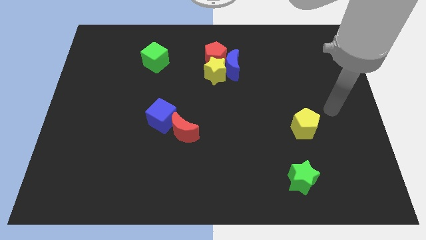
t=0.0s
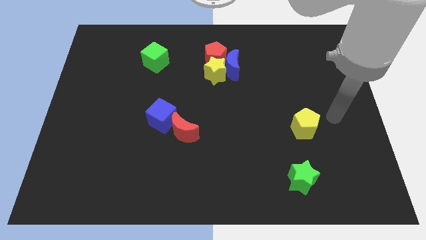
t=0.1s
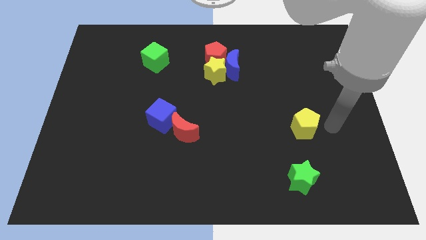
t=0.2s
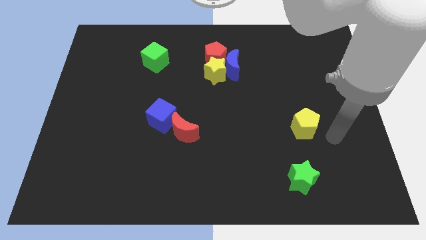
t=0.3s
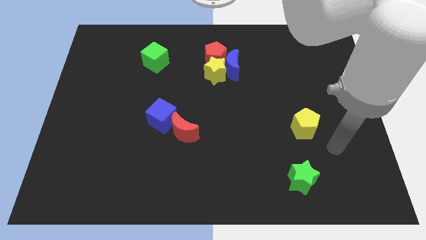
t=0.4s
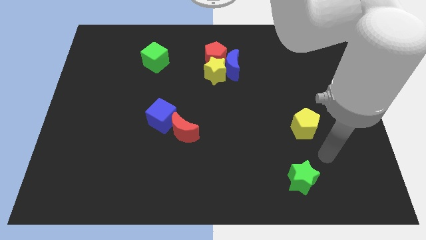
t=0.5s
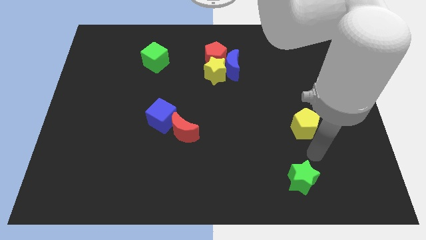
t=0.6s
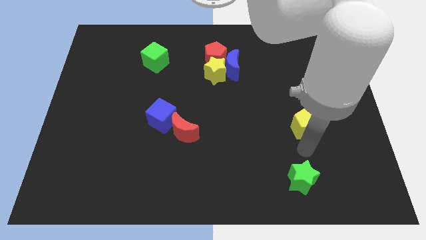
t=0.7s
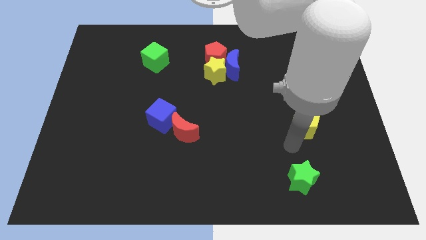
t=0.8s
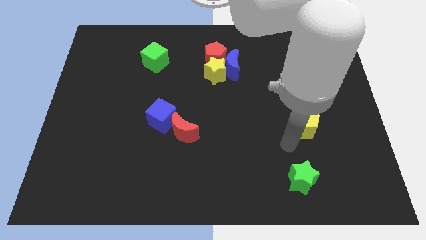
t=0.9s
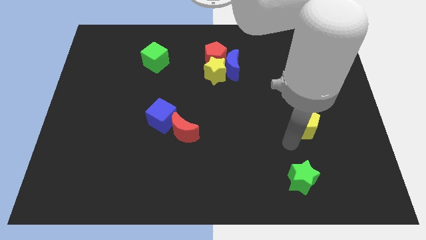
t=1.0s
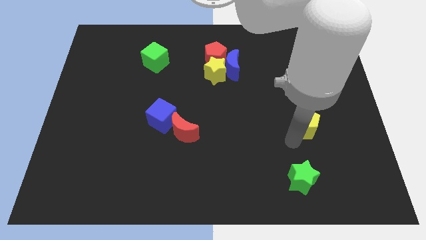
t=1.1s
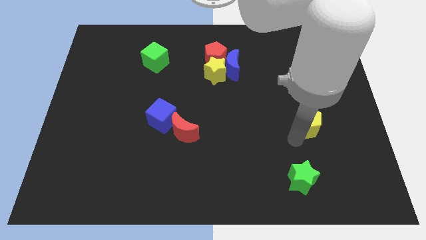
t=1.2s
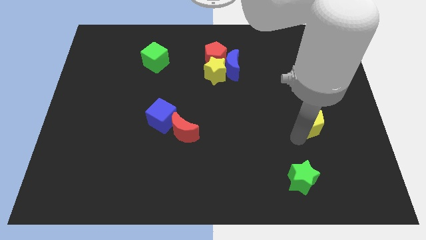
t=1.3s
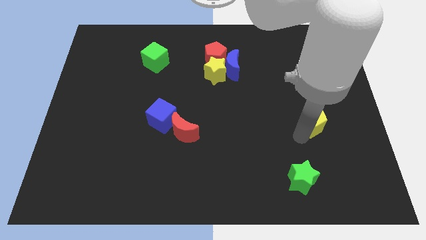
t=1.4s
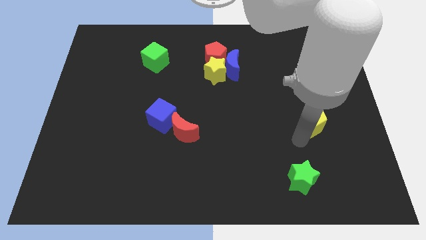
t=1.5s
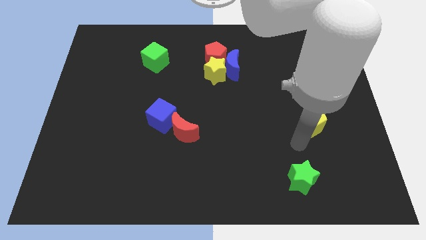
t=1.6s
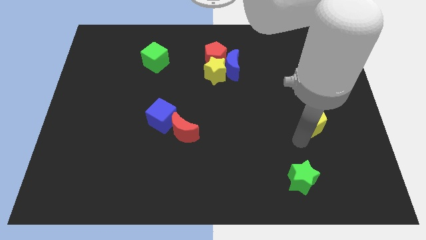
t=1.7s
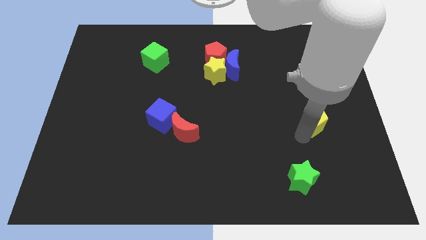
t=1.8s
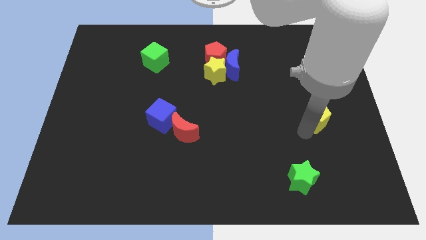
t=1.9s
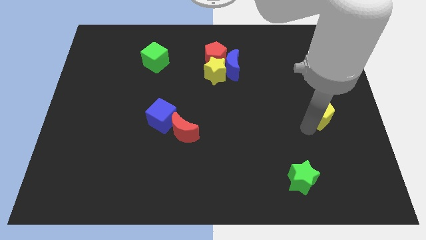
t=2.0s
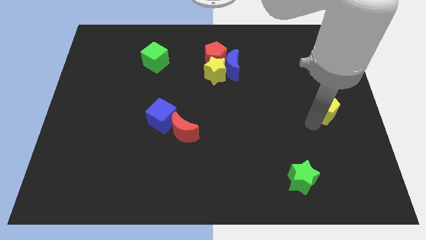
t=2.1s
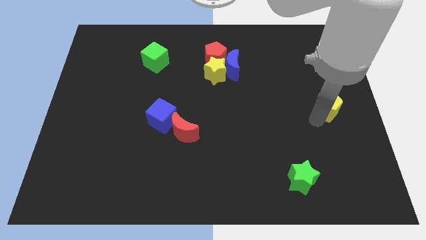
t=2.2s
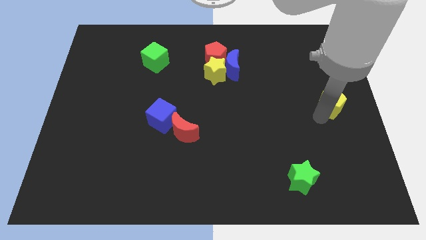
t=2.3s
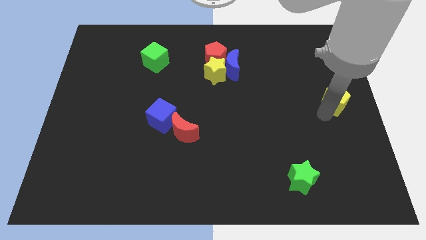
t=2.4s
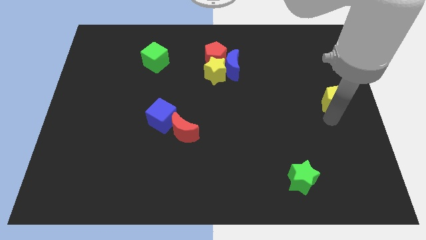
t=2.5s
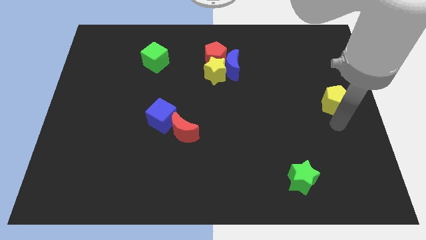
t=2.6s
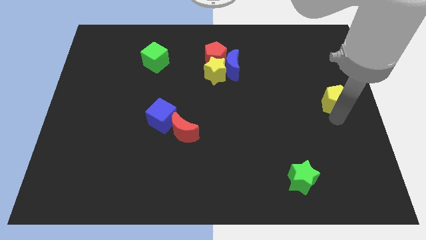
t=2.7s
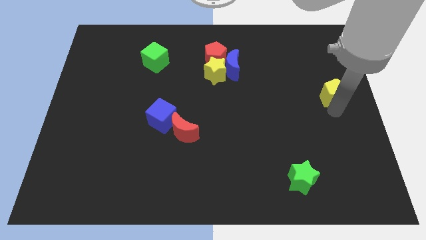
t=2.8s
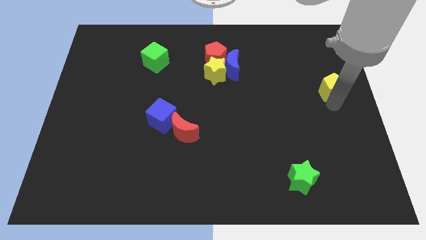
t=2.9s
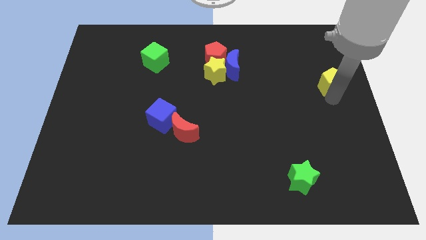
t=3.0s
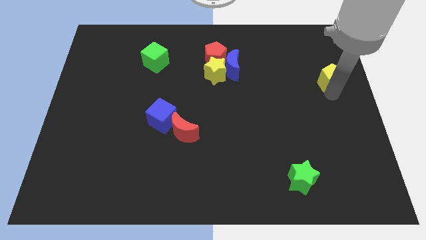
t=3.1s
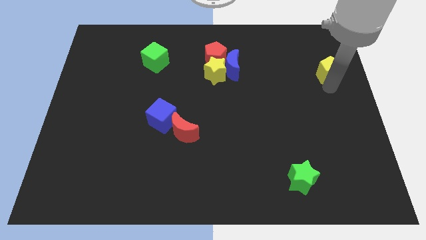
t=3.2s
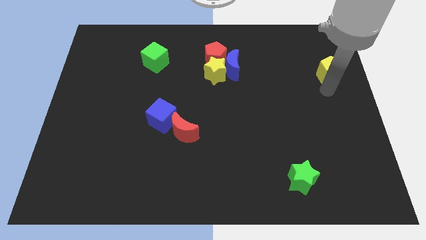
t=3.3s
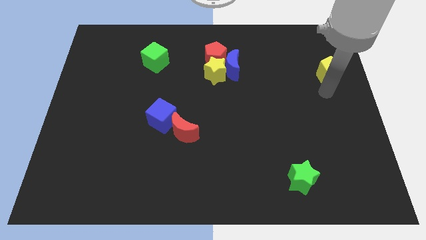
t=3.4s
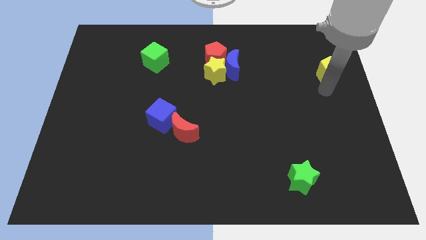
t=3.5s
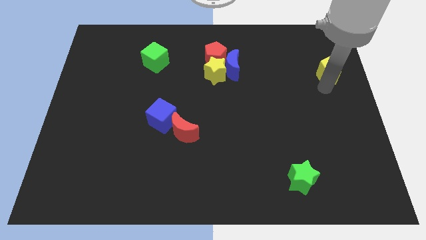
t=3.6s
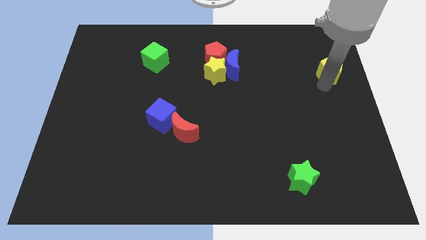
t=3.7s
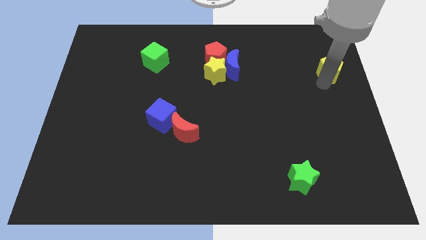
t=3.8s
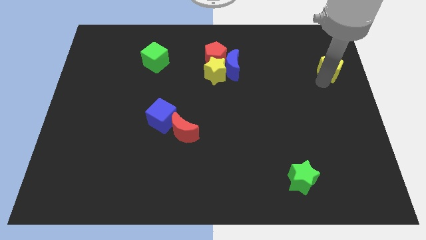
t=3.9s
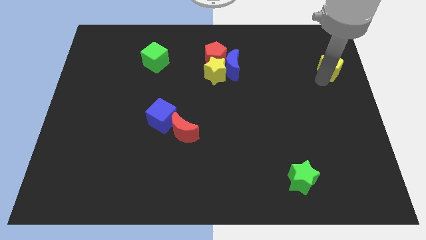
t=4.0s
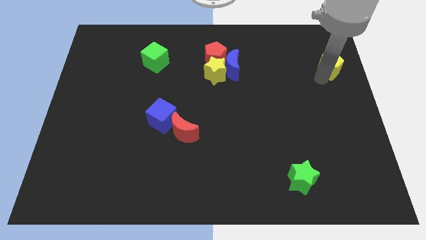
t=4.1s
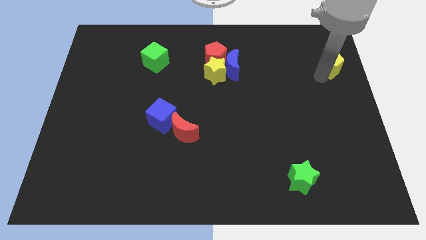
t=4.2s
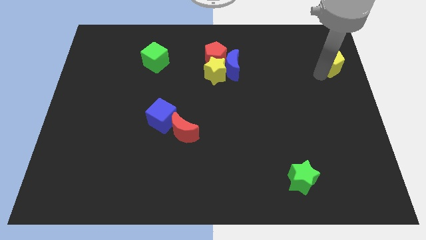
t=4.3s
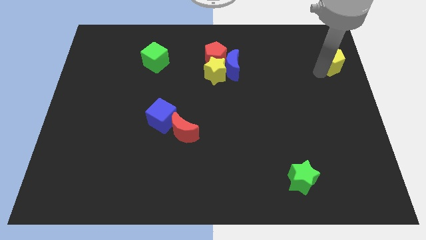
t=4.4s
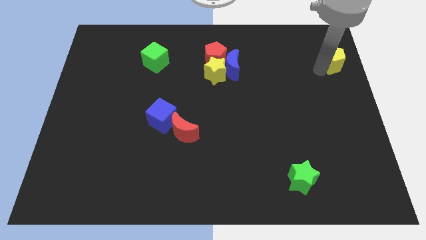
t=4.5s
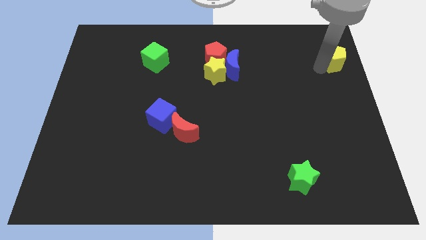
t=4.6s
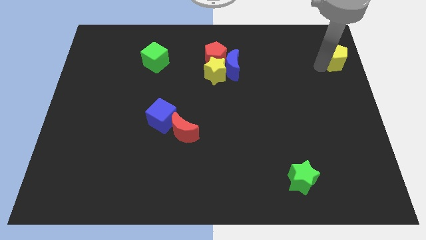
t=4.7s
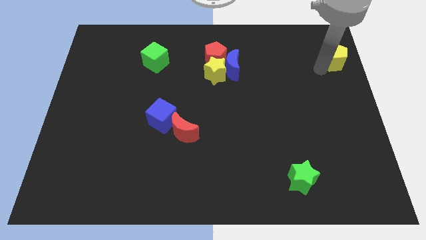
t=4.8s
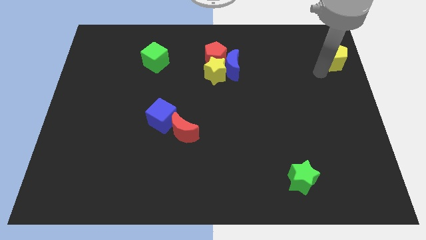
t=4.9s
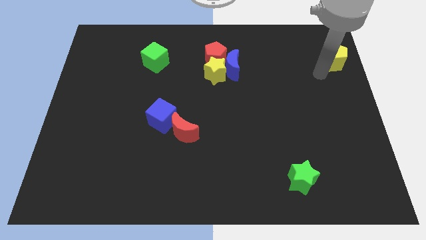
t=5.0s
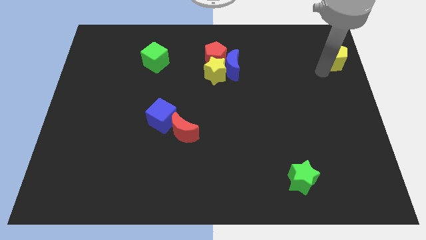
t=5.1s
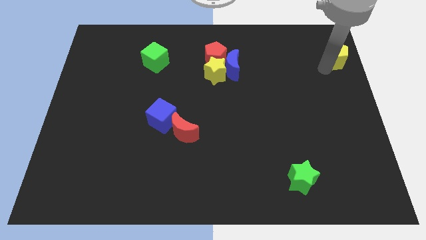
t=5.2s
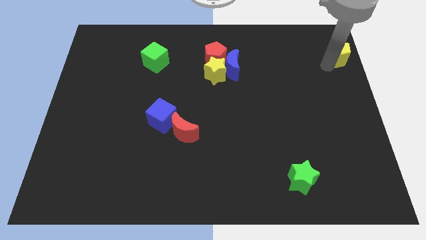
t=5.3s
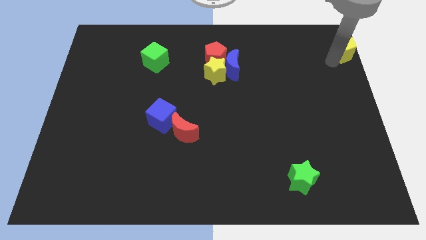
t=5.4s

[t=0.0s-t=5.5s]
push the yellow pentagon to the top right

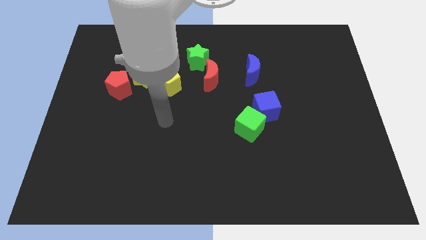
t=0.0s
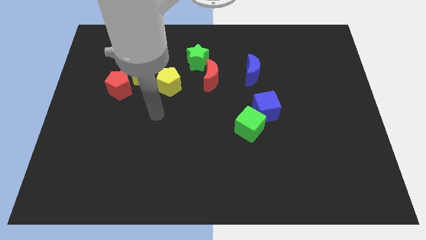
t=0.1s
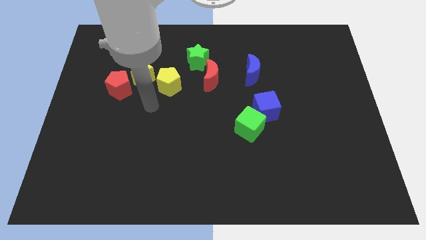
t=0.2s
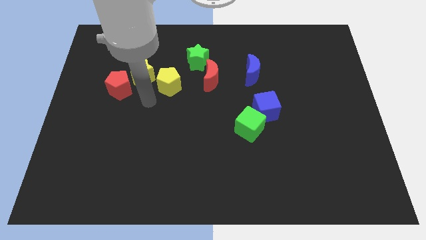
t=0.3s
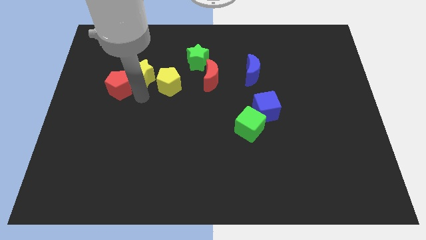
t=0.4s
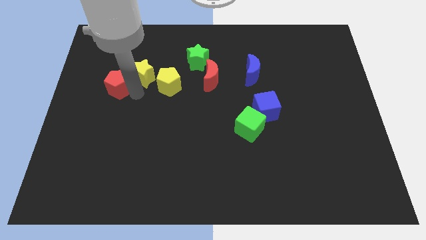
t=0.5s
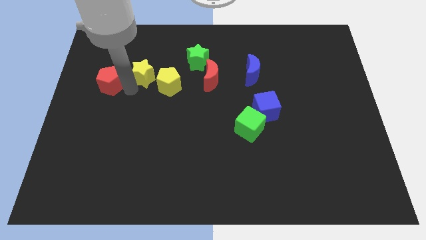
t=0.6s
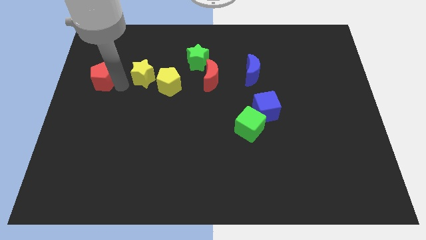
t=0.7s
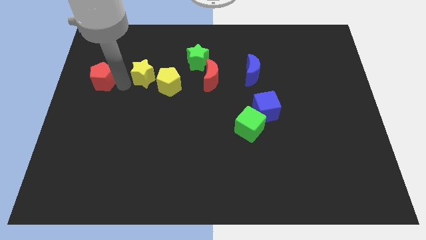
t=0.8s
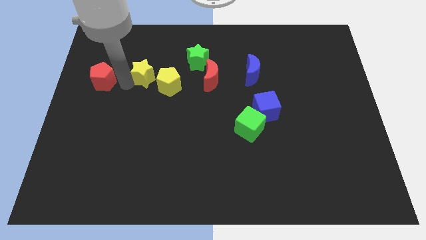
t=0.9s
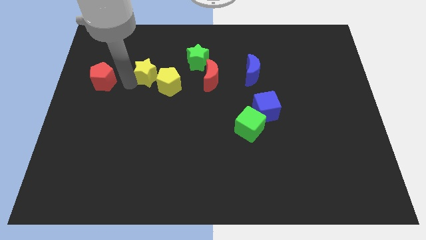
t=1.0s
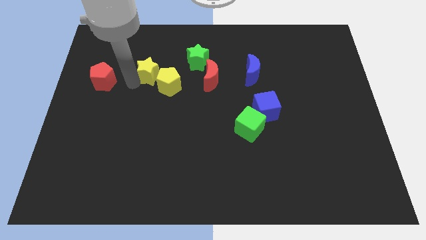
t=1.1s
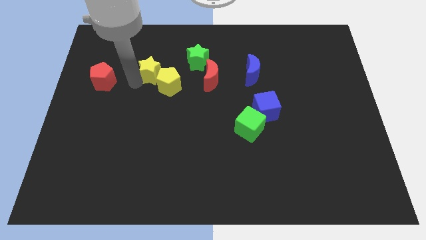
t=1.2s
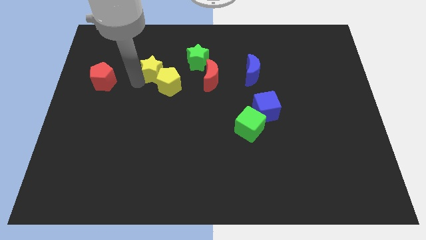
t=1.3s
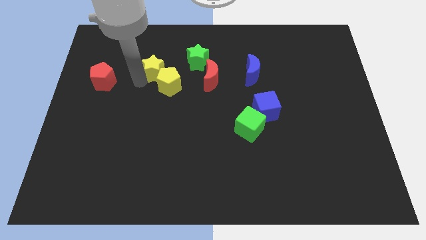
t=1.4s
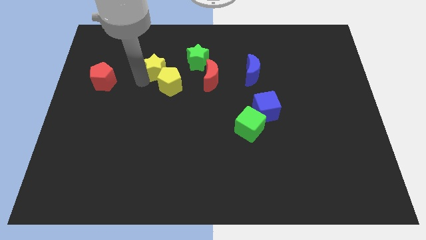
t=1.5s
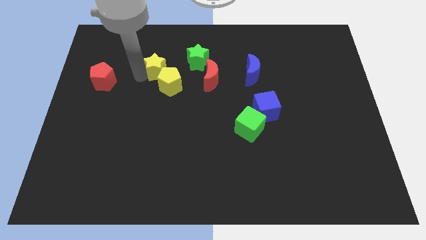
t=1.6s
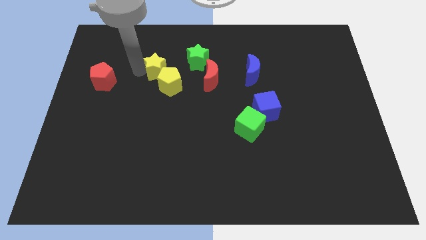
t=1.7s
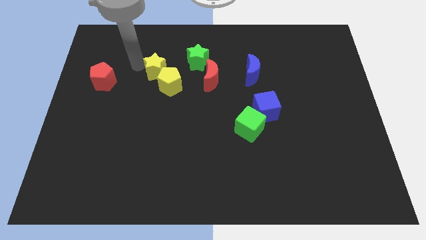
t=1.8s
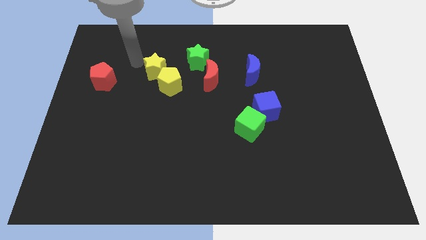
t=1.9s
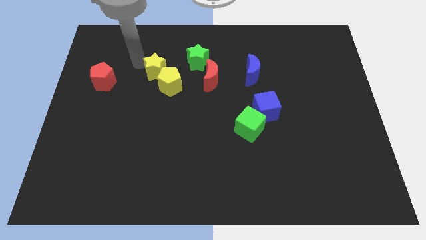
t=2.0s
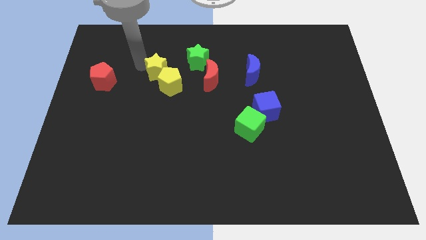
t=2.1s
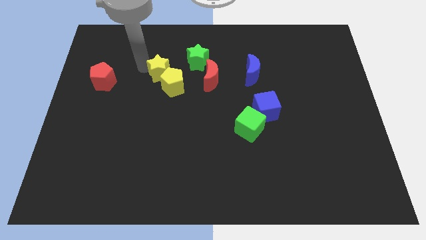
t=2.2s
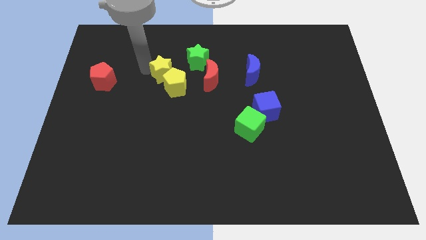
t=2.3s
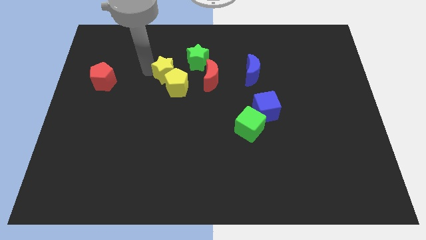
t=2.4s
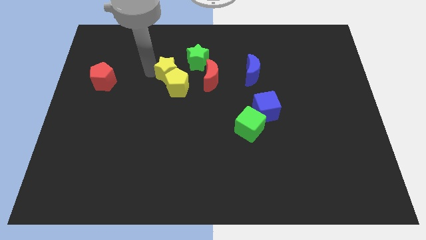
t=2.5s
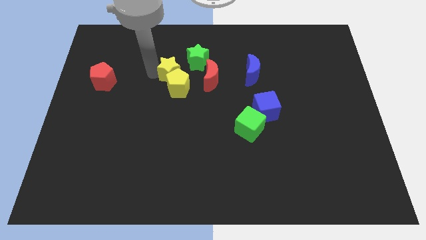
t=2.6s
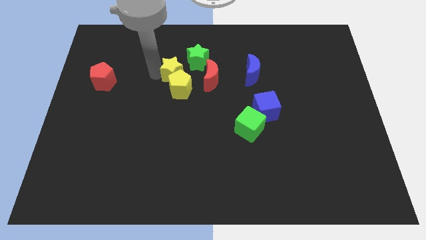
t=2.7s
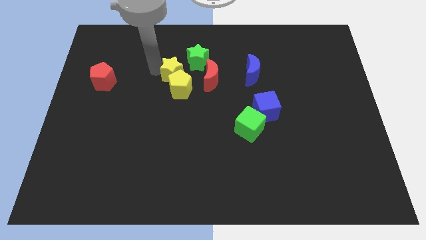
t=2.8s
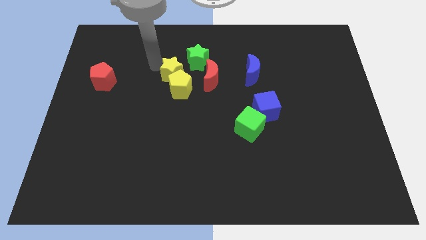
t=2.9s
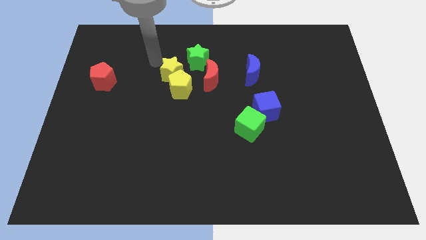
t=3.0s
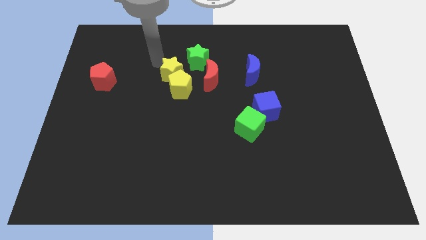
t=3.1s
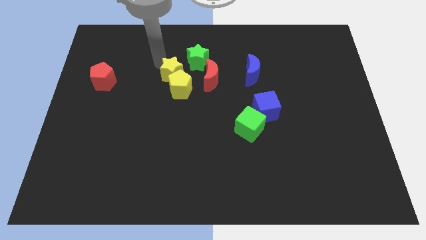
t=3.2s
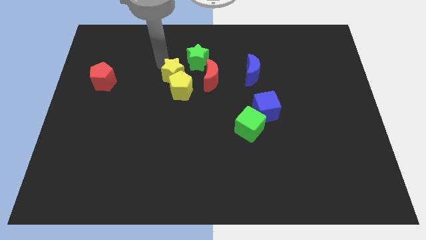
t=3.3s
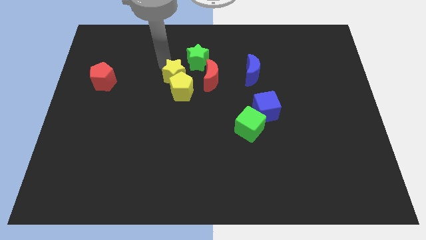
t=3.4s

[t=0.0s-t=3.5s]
move the yellow star to the middle
